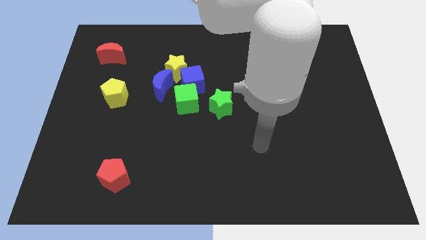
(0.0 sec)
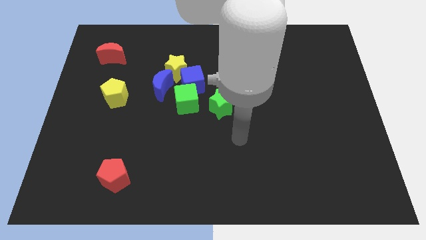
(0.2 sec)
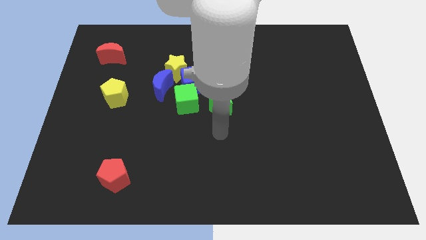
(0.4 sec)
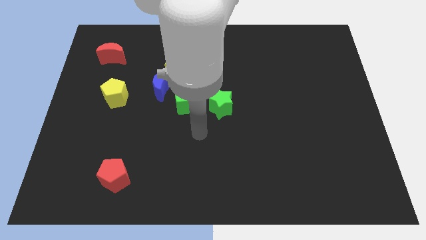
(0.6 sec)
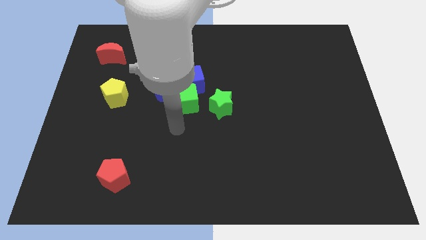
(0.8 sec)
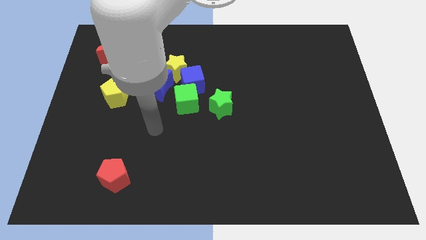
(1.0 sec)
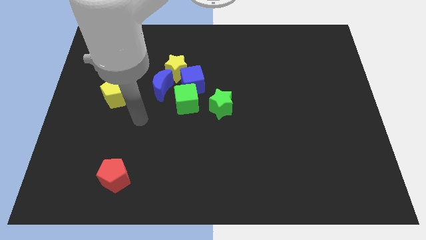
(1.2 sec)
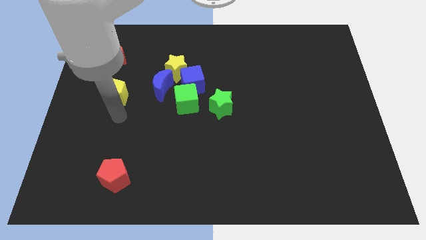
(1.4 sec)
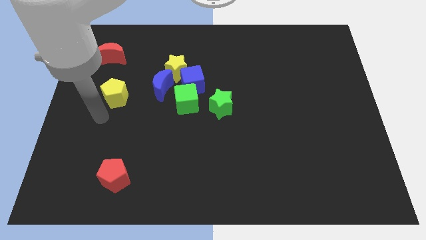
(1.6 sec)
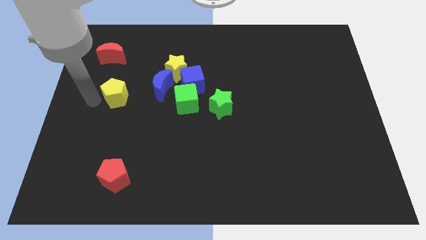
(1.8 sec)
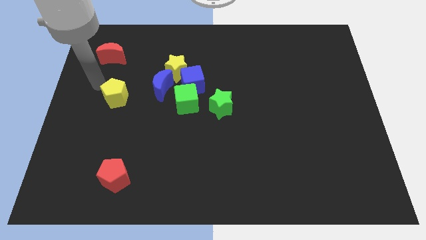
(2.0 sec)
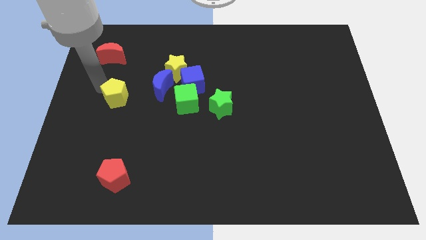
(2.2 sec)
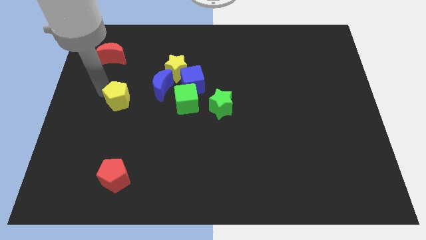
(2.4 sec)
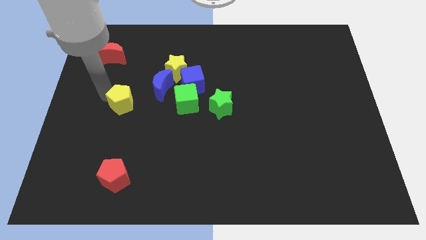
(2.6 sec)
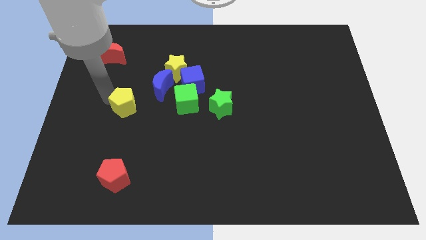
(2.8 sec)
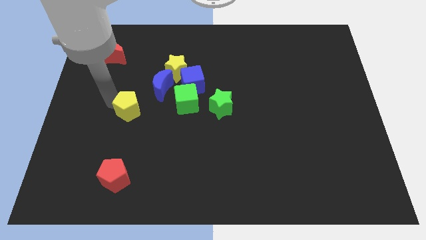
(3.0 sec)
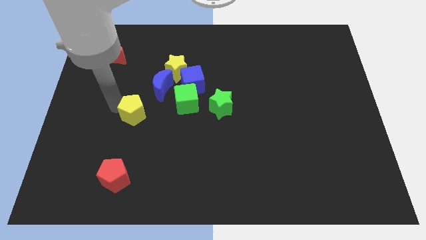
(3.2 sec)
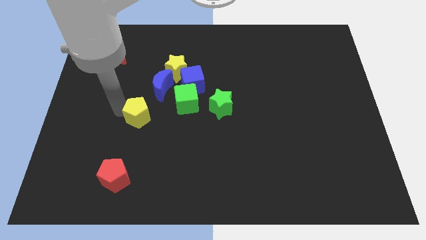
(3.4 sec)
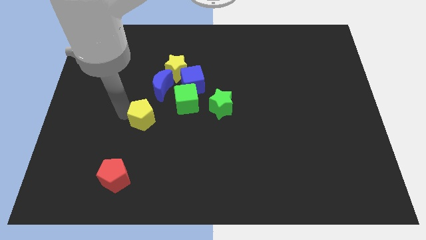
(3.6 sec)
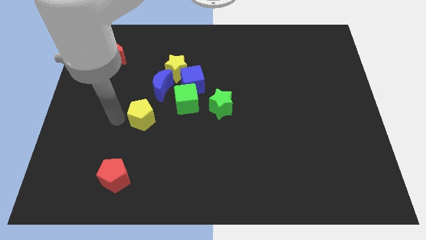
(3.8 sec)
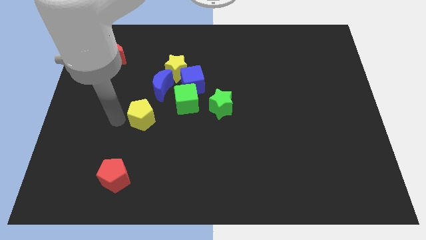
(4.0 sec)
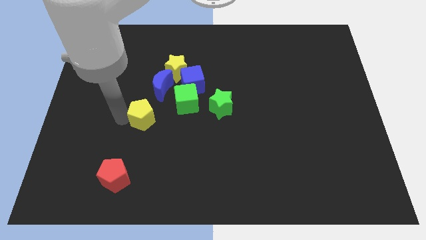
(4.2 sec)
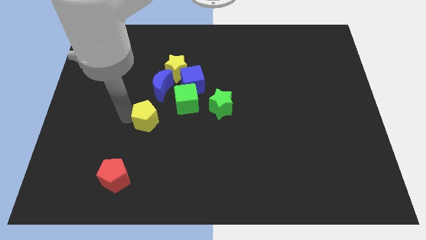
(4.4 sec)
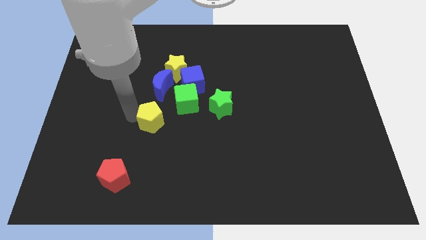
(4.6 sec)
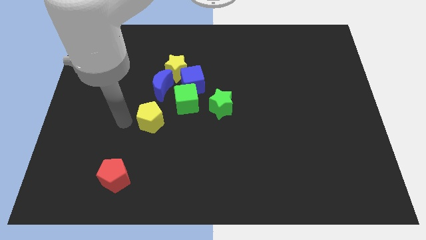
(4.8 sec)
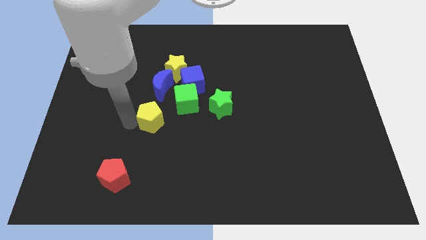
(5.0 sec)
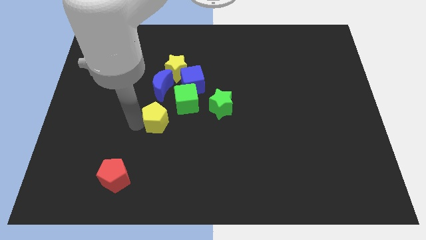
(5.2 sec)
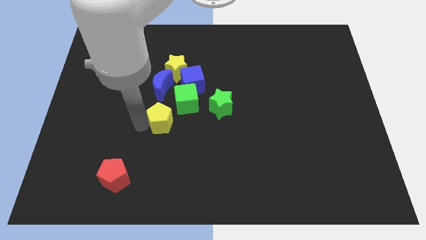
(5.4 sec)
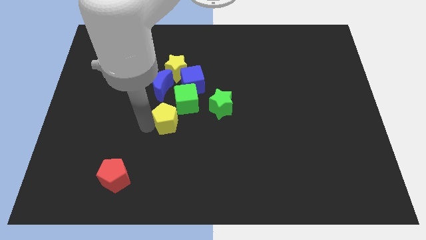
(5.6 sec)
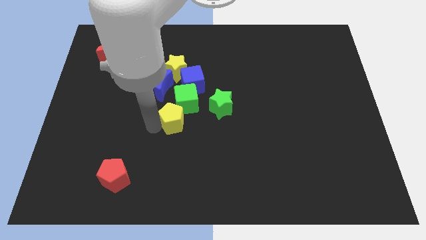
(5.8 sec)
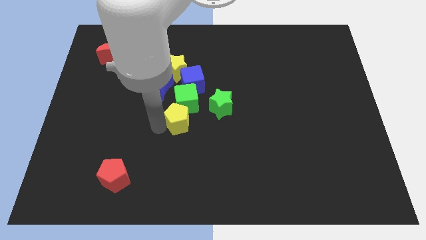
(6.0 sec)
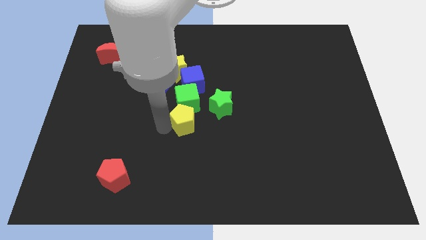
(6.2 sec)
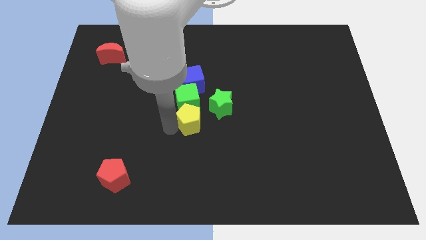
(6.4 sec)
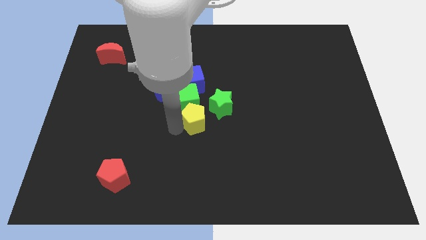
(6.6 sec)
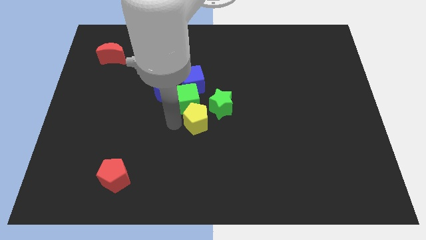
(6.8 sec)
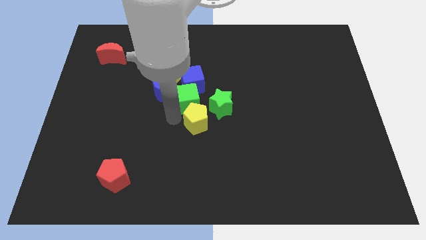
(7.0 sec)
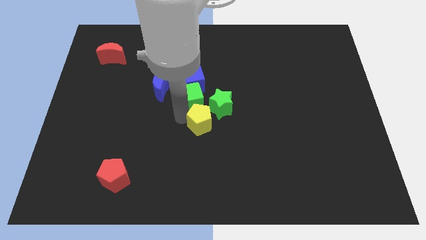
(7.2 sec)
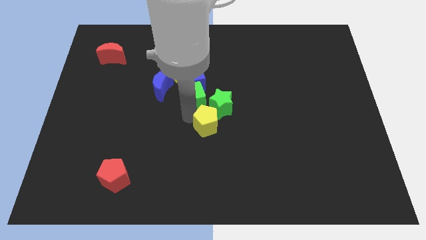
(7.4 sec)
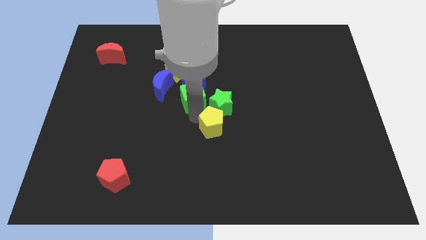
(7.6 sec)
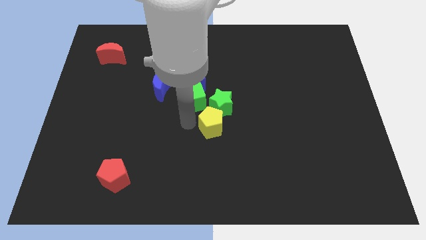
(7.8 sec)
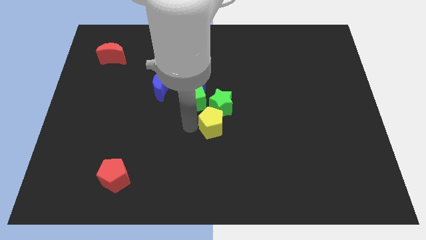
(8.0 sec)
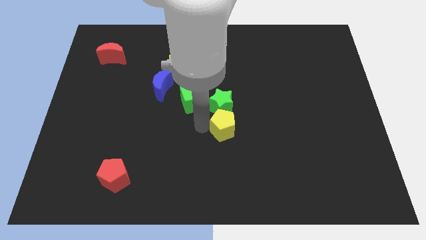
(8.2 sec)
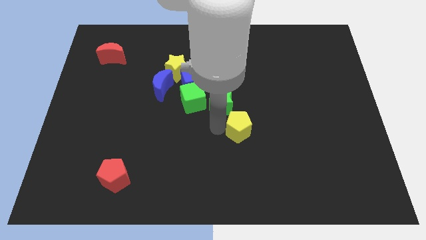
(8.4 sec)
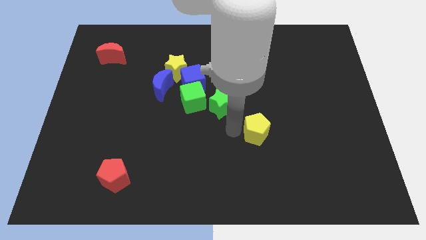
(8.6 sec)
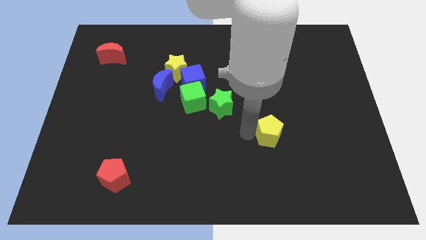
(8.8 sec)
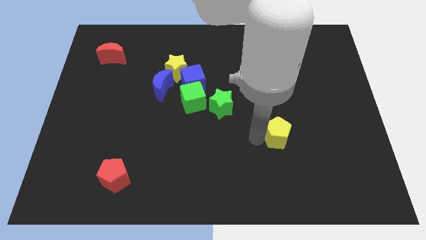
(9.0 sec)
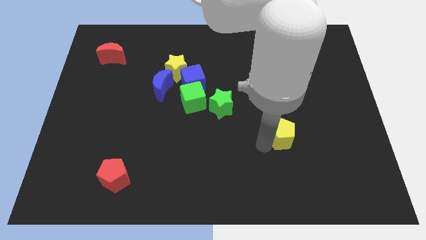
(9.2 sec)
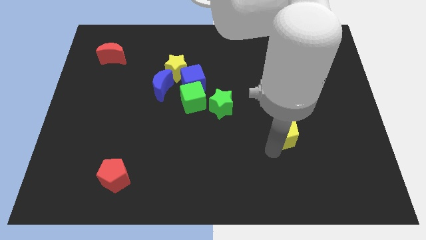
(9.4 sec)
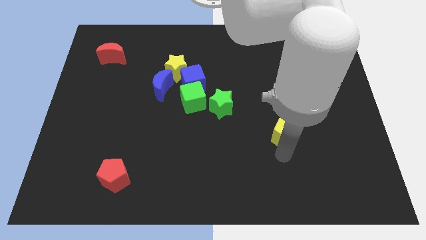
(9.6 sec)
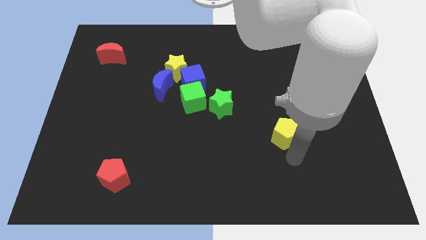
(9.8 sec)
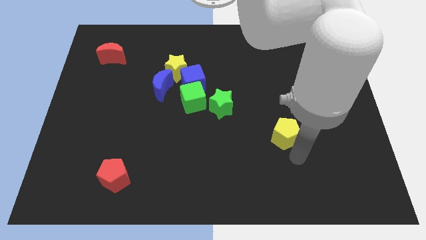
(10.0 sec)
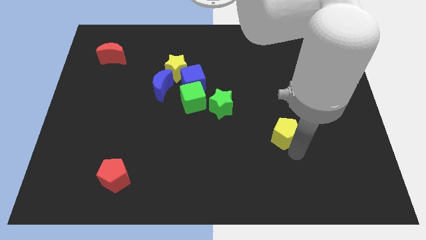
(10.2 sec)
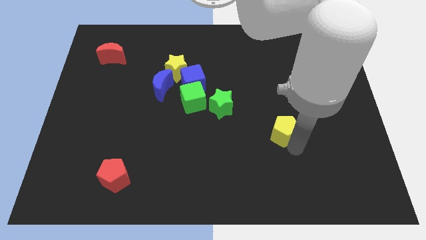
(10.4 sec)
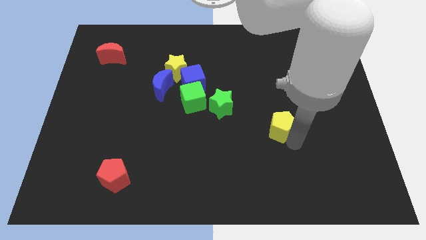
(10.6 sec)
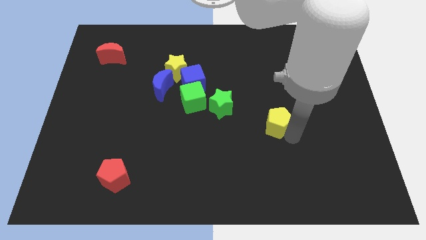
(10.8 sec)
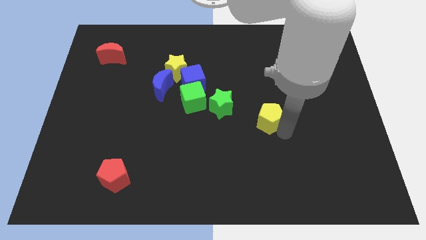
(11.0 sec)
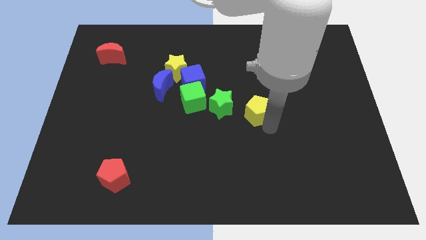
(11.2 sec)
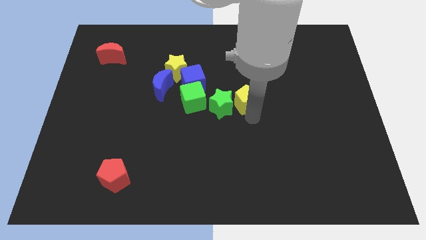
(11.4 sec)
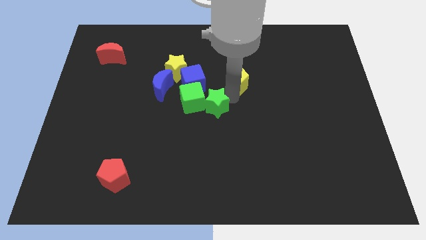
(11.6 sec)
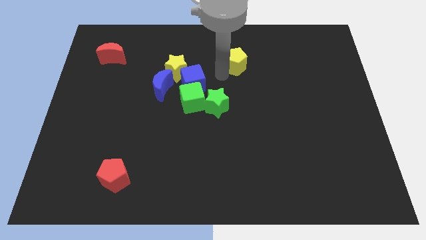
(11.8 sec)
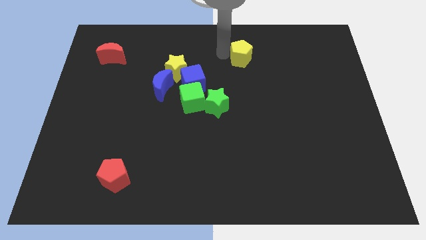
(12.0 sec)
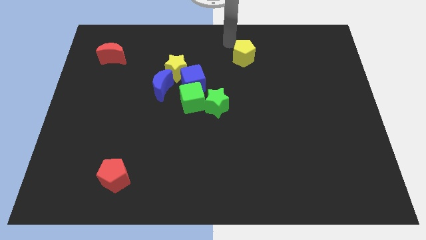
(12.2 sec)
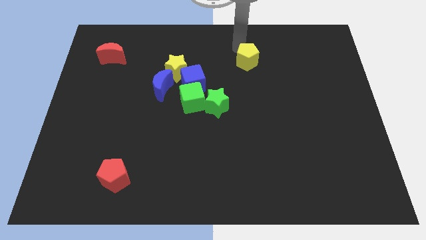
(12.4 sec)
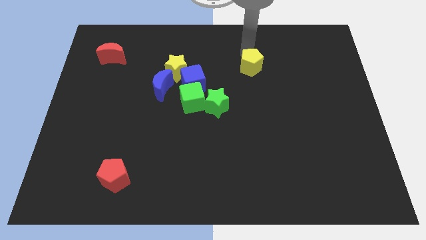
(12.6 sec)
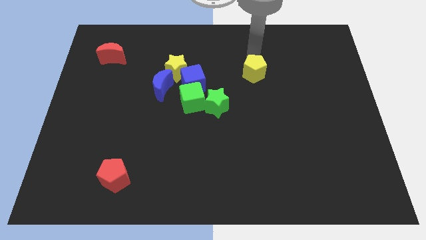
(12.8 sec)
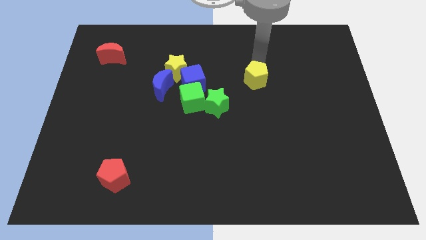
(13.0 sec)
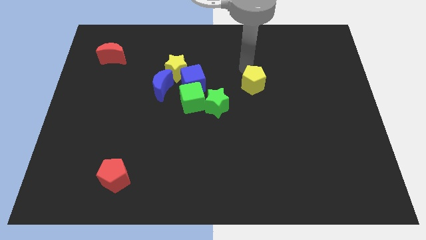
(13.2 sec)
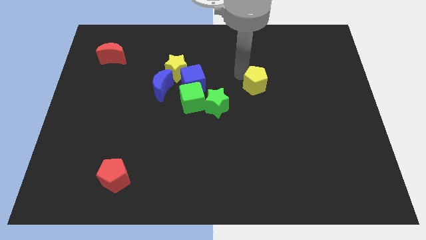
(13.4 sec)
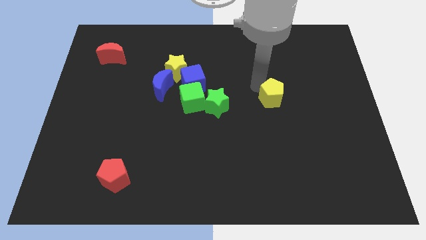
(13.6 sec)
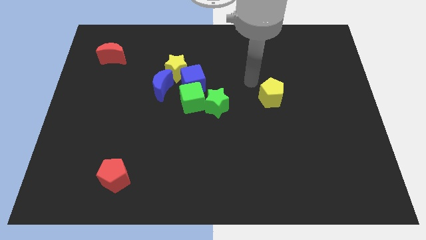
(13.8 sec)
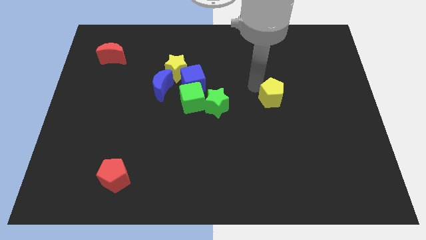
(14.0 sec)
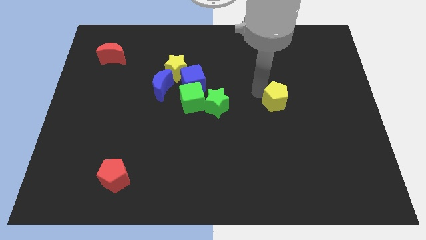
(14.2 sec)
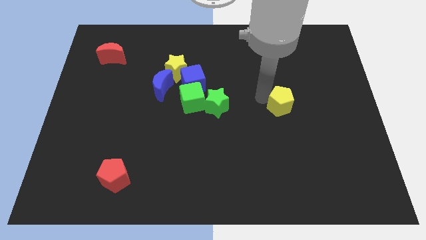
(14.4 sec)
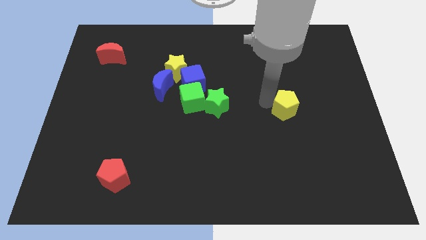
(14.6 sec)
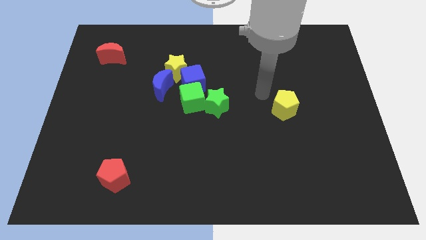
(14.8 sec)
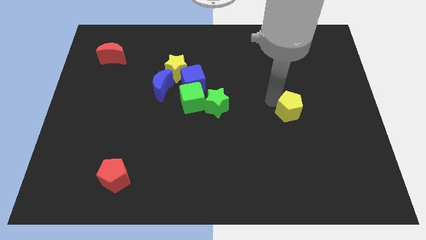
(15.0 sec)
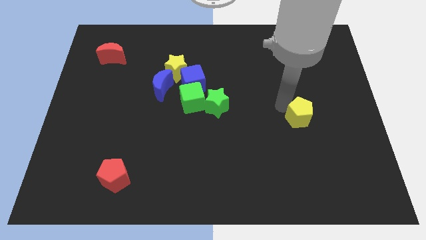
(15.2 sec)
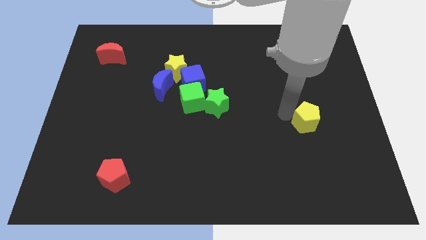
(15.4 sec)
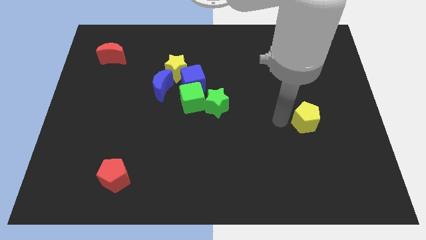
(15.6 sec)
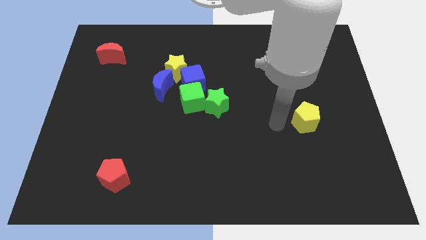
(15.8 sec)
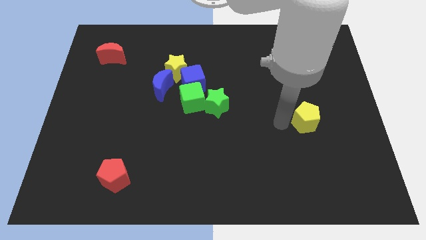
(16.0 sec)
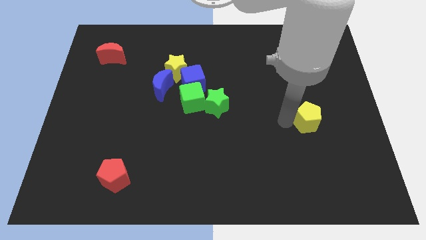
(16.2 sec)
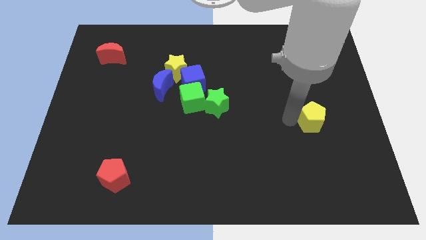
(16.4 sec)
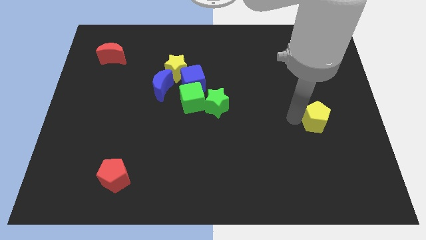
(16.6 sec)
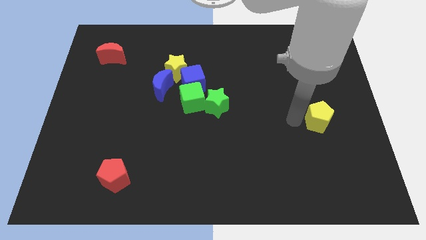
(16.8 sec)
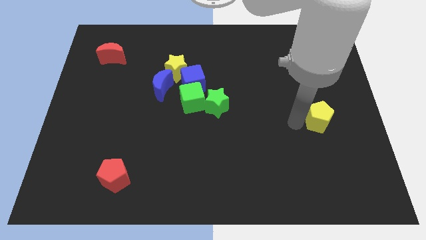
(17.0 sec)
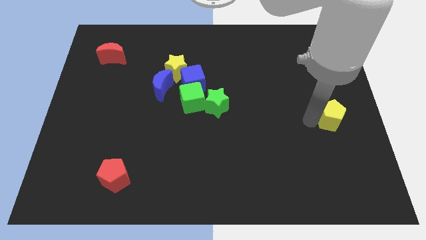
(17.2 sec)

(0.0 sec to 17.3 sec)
move the yellow pentagon to the center right
